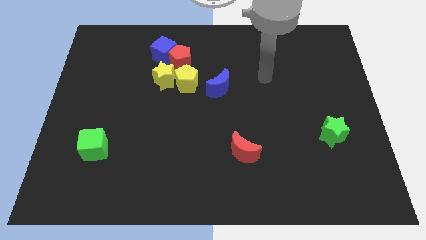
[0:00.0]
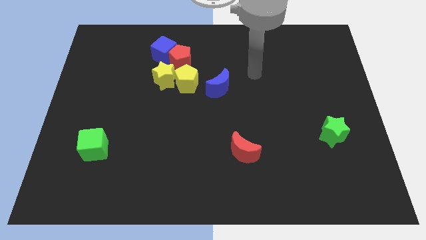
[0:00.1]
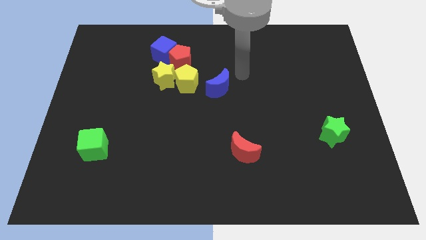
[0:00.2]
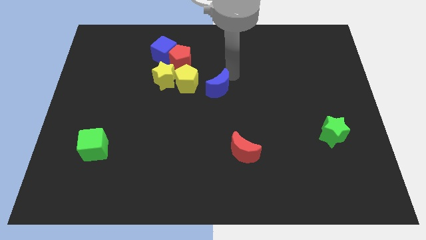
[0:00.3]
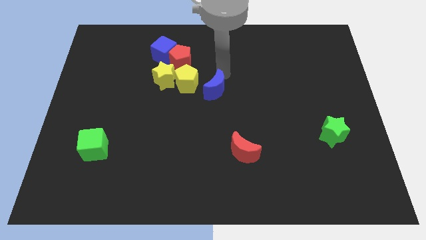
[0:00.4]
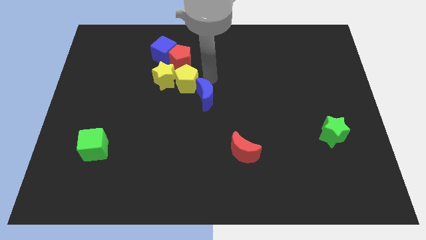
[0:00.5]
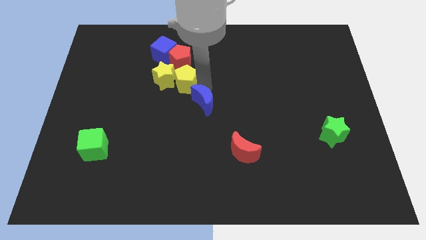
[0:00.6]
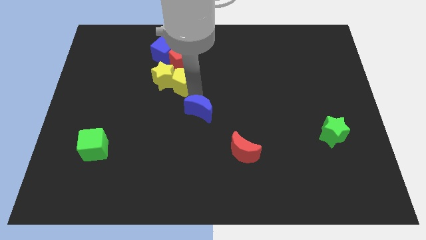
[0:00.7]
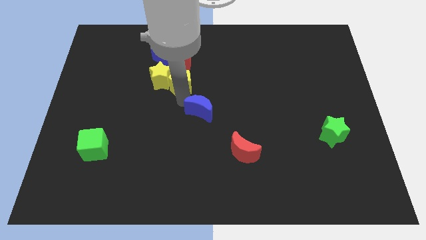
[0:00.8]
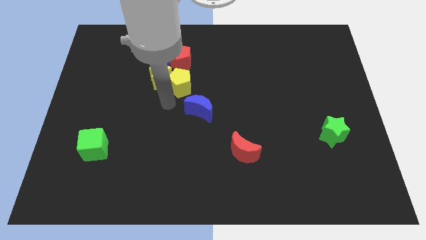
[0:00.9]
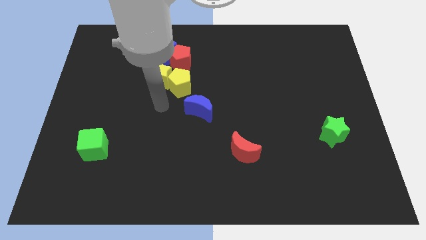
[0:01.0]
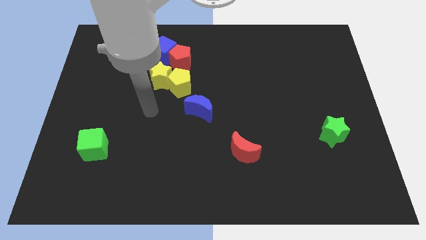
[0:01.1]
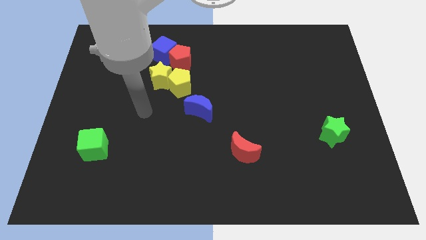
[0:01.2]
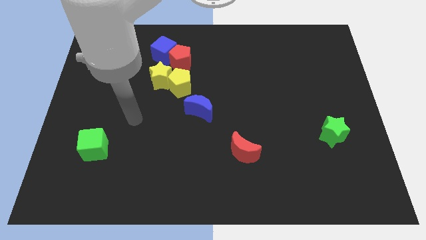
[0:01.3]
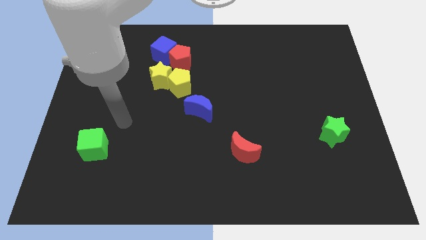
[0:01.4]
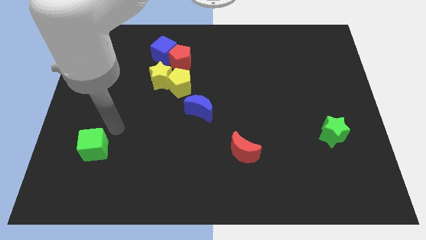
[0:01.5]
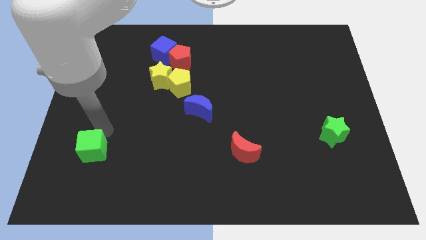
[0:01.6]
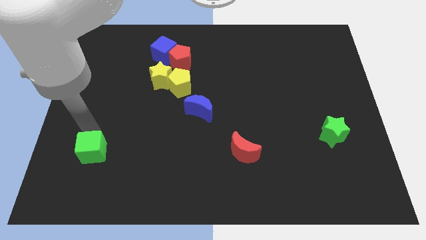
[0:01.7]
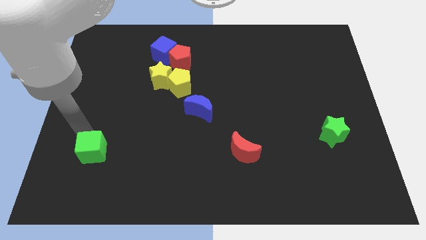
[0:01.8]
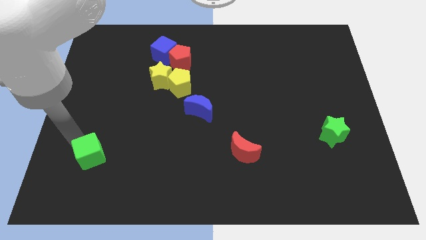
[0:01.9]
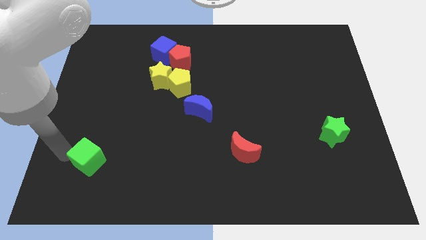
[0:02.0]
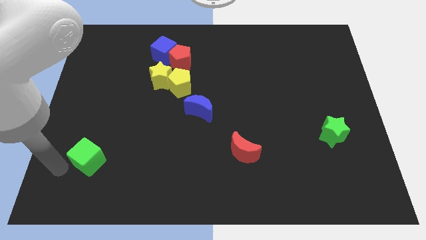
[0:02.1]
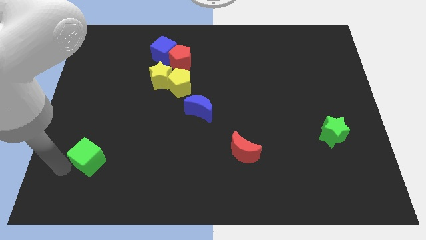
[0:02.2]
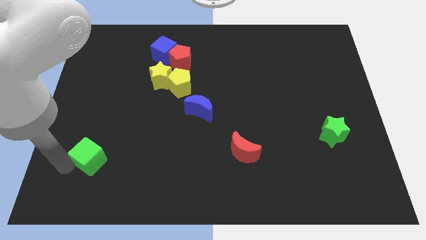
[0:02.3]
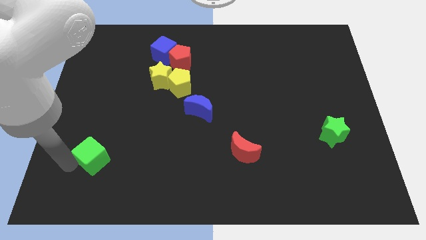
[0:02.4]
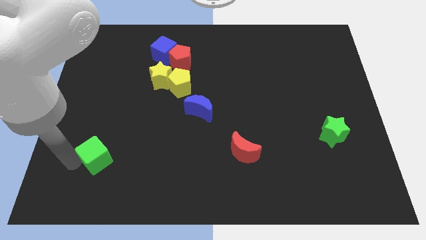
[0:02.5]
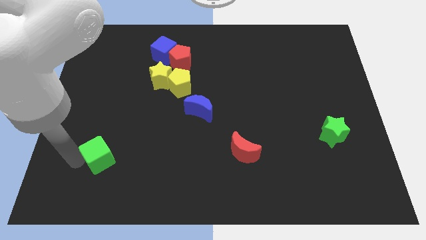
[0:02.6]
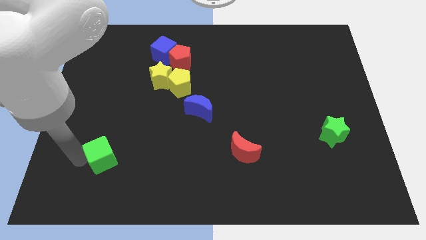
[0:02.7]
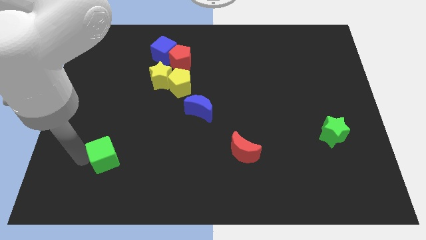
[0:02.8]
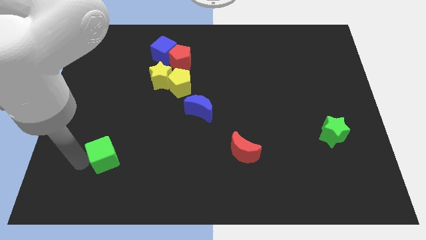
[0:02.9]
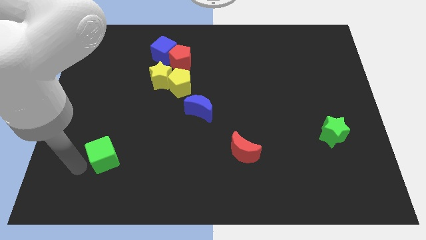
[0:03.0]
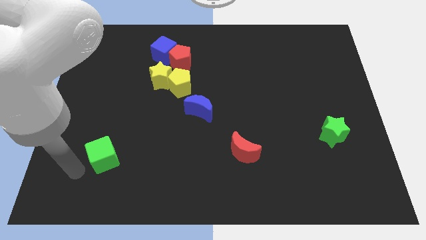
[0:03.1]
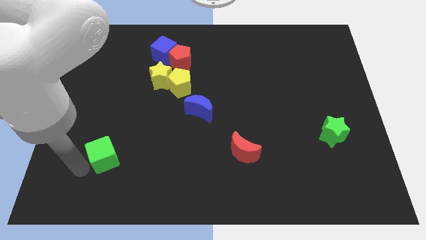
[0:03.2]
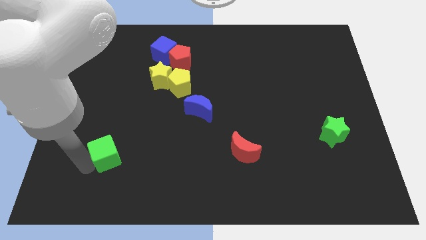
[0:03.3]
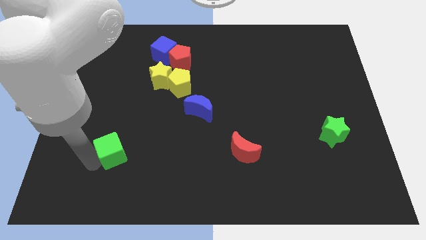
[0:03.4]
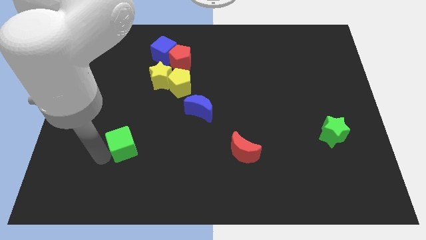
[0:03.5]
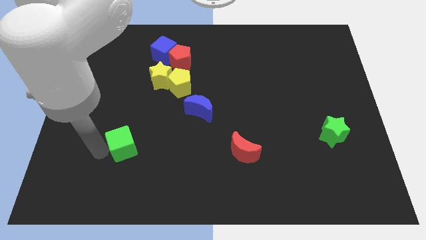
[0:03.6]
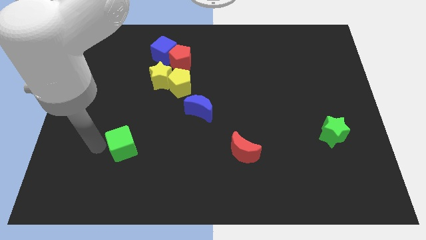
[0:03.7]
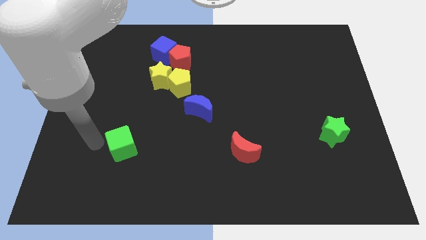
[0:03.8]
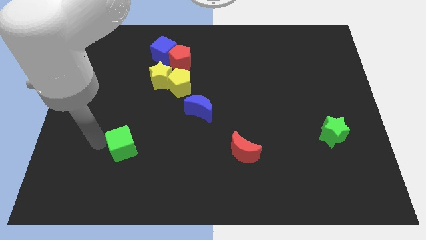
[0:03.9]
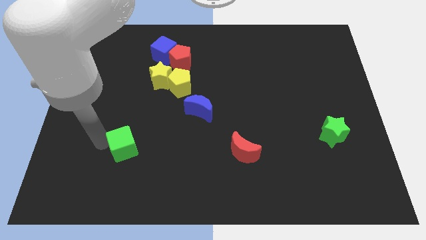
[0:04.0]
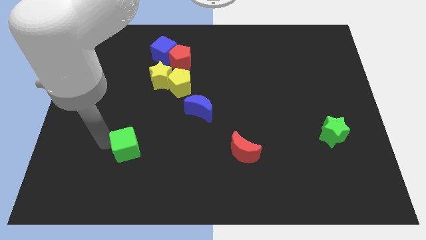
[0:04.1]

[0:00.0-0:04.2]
move the green cube right a little bit

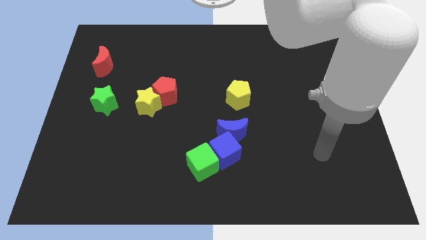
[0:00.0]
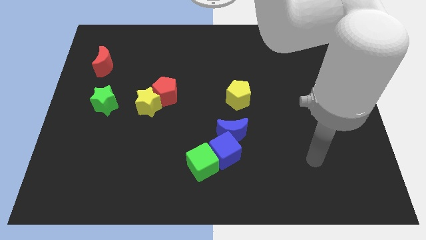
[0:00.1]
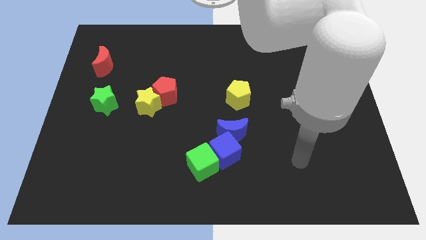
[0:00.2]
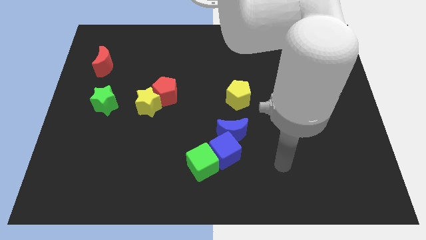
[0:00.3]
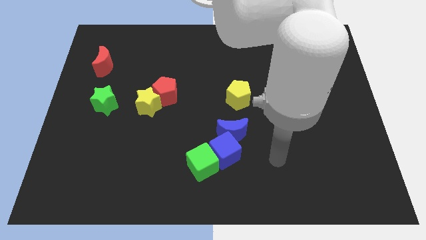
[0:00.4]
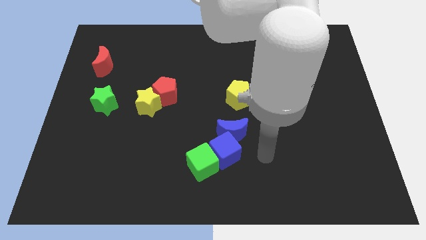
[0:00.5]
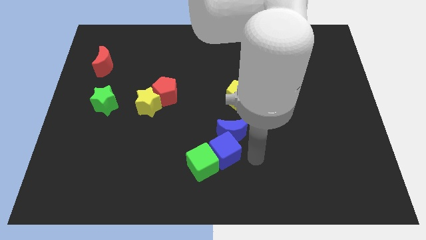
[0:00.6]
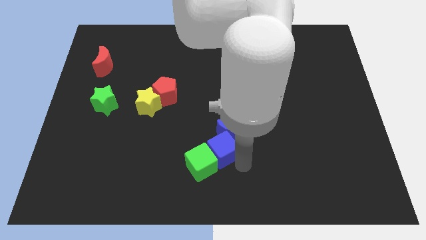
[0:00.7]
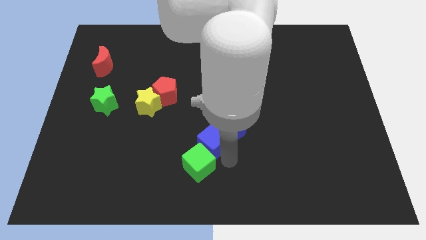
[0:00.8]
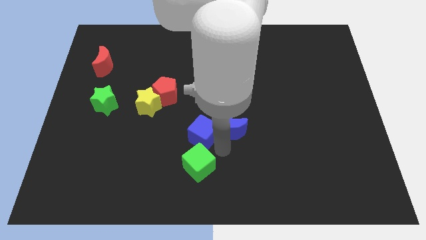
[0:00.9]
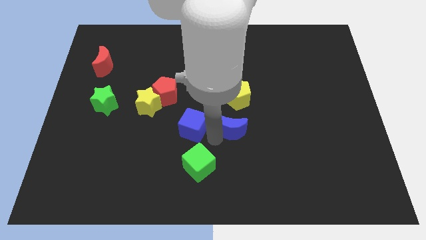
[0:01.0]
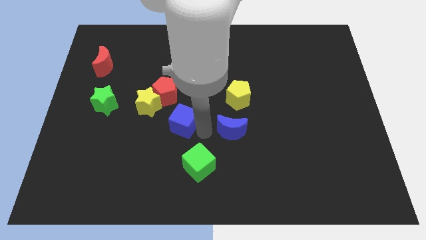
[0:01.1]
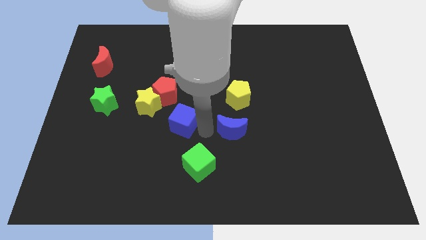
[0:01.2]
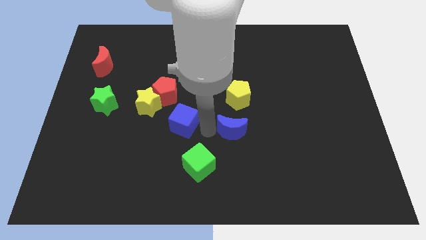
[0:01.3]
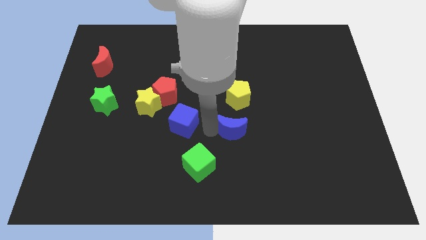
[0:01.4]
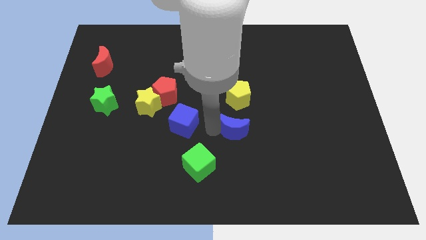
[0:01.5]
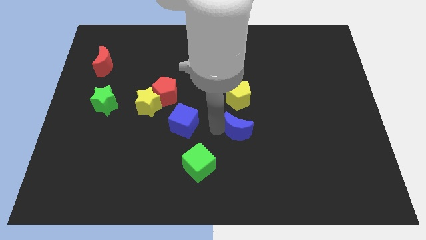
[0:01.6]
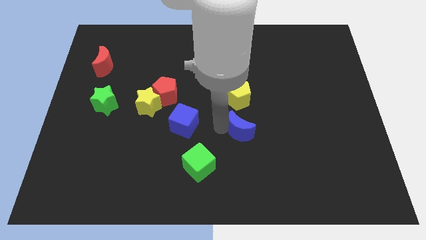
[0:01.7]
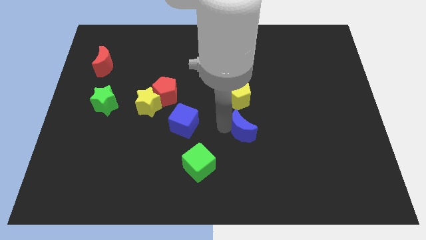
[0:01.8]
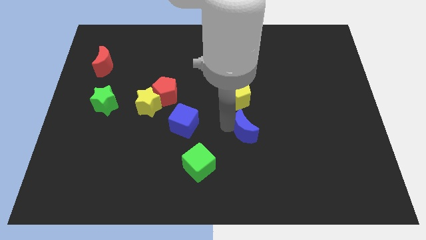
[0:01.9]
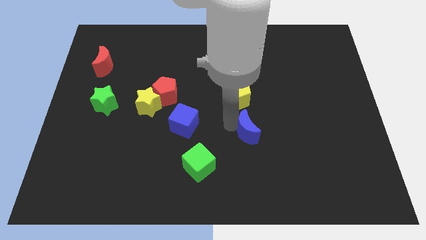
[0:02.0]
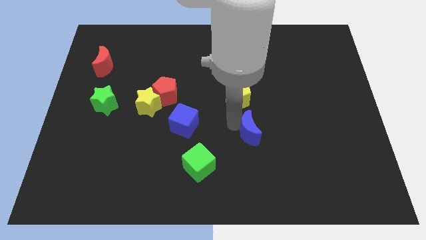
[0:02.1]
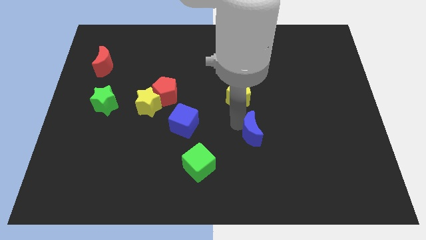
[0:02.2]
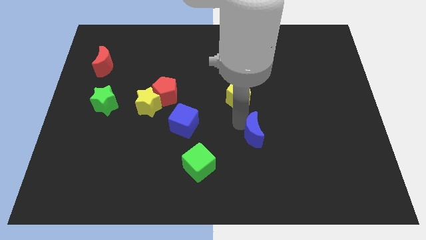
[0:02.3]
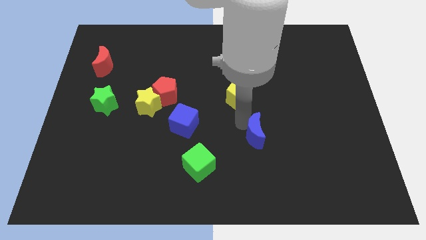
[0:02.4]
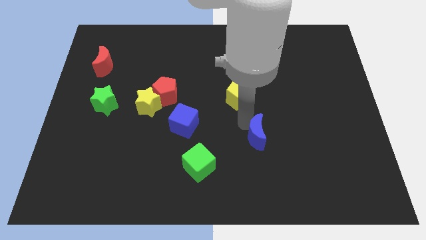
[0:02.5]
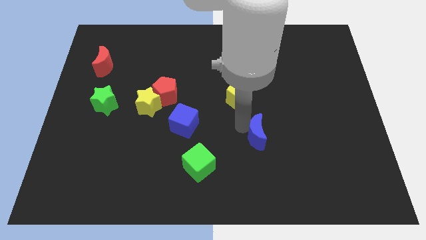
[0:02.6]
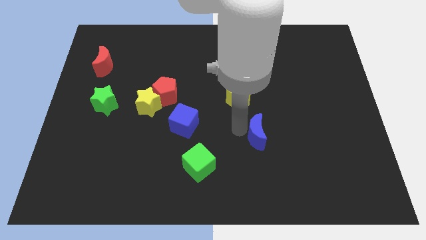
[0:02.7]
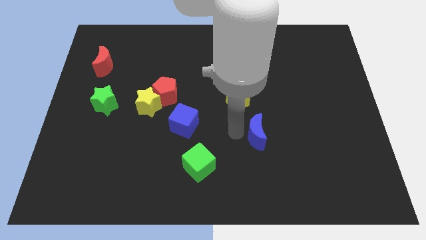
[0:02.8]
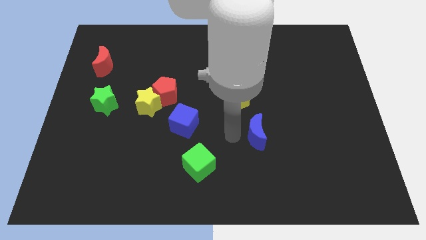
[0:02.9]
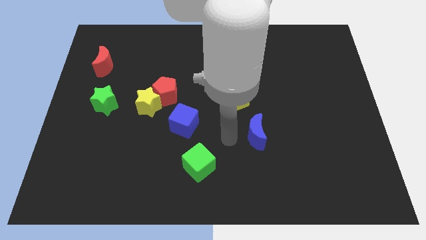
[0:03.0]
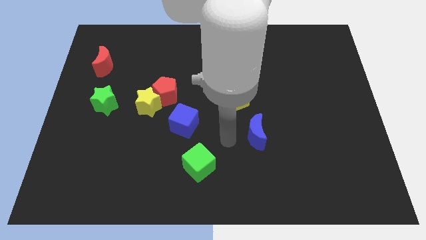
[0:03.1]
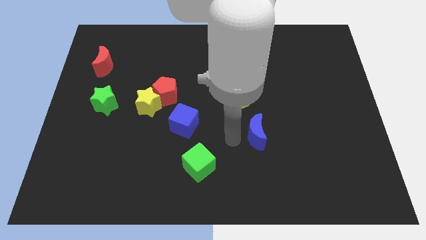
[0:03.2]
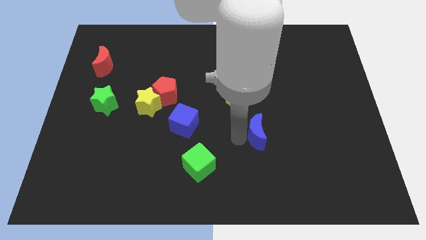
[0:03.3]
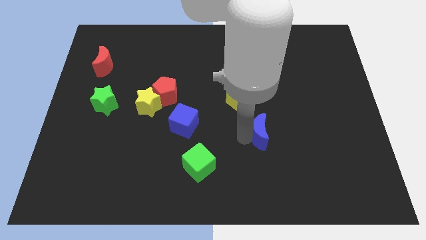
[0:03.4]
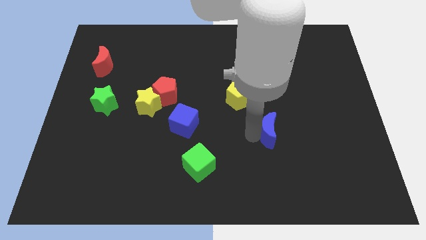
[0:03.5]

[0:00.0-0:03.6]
slightly push the blue moon right

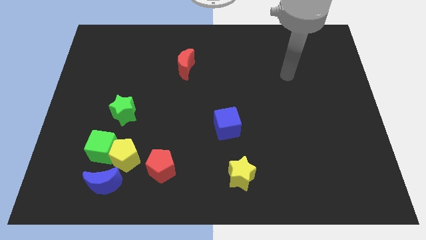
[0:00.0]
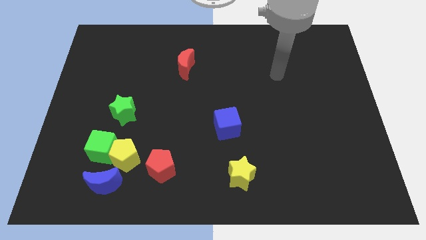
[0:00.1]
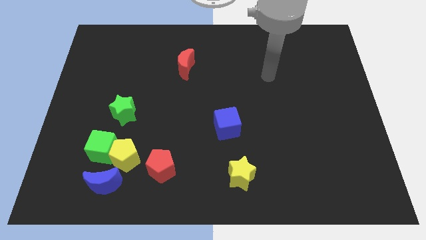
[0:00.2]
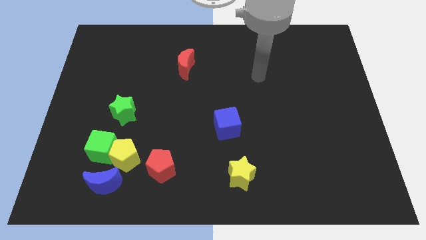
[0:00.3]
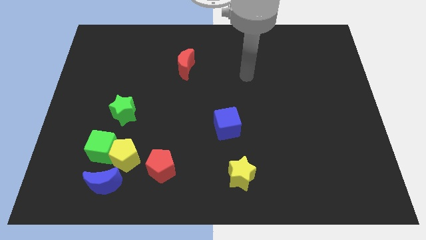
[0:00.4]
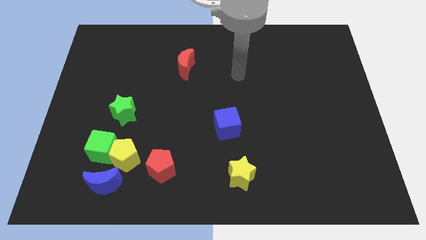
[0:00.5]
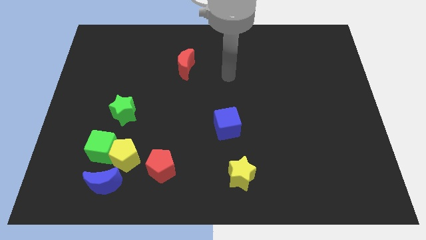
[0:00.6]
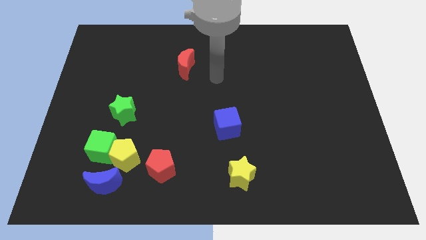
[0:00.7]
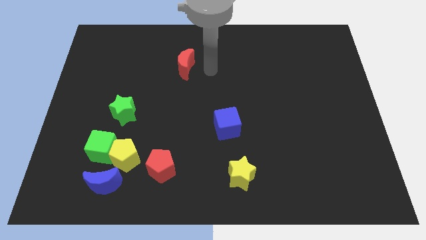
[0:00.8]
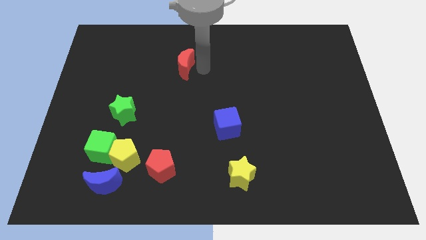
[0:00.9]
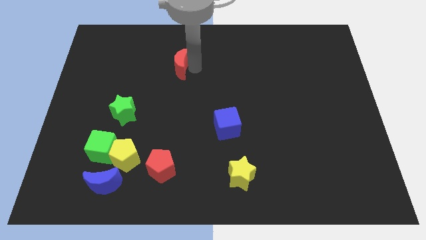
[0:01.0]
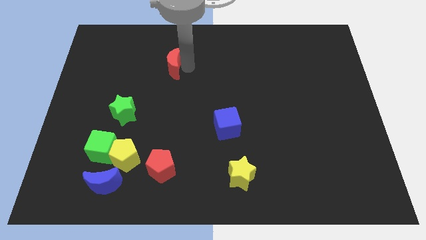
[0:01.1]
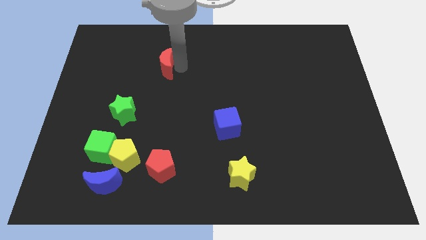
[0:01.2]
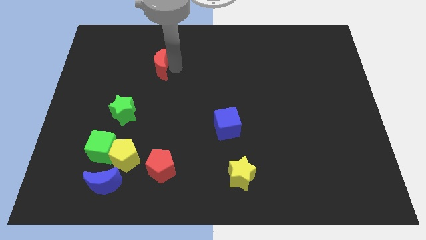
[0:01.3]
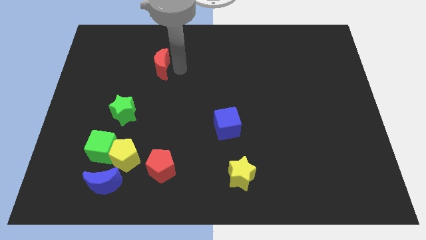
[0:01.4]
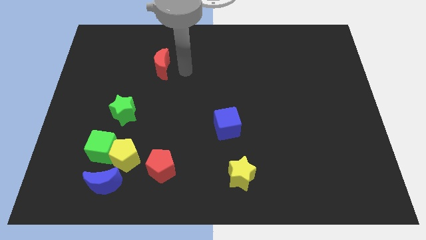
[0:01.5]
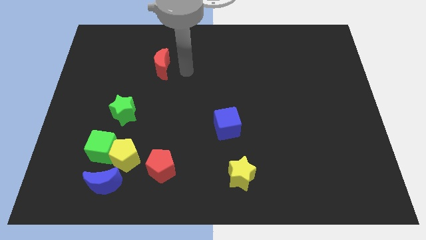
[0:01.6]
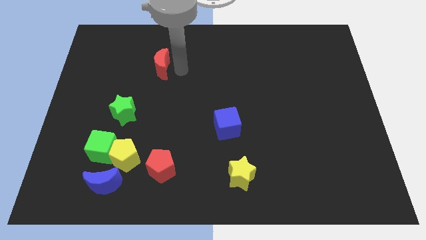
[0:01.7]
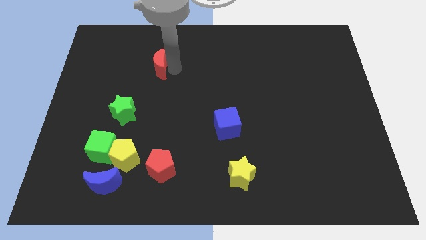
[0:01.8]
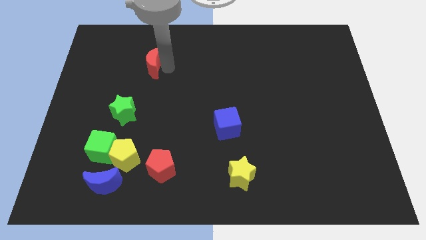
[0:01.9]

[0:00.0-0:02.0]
slightly slide the red moon left
